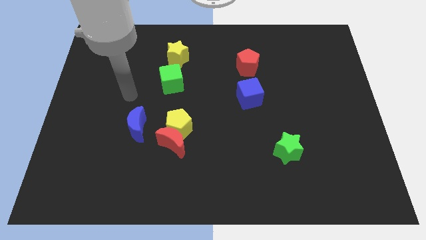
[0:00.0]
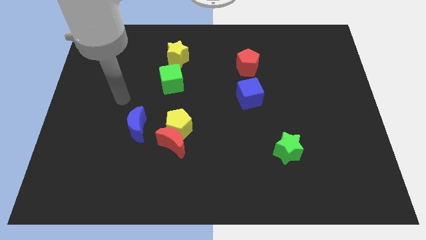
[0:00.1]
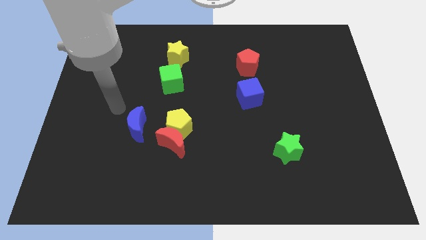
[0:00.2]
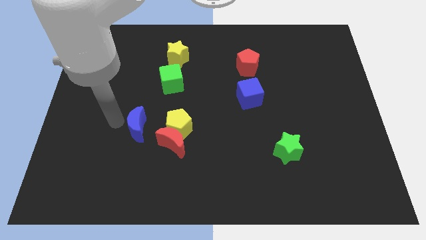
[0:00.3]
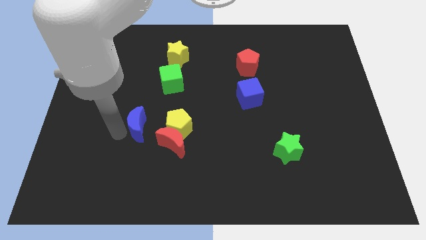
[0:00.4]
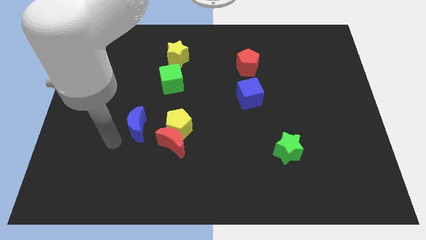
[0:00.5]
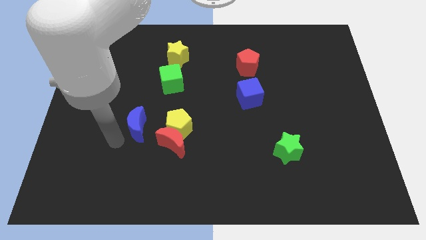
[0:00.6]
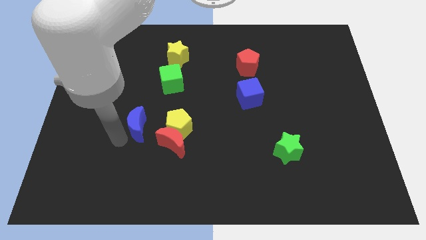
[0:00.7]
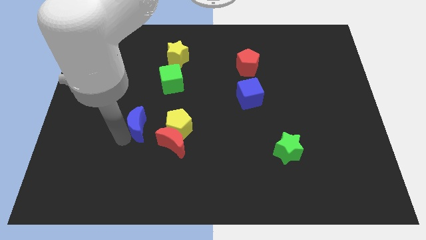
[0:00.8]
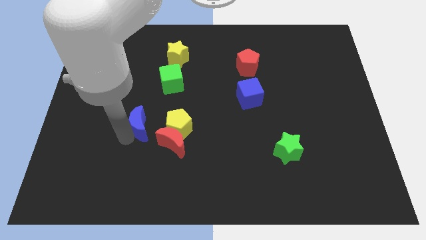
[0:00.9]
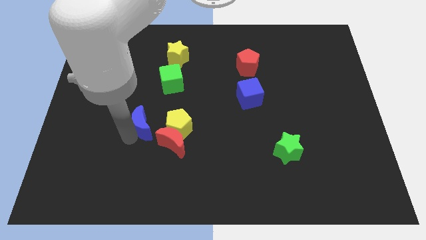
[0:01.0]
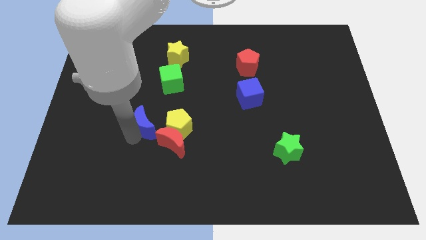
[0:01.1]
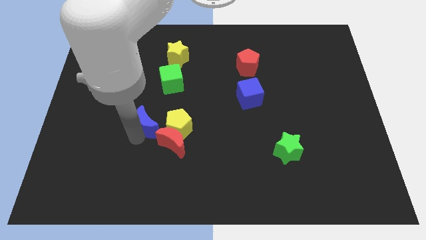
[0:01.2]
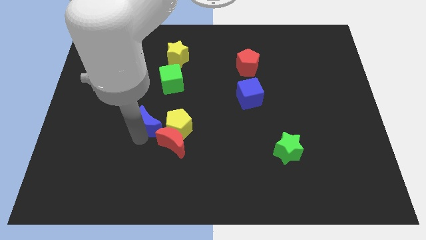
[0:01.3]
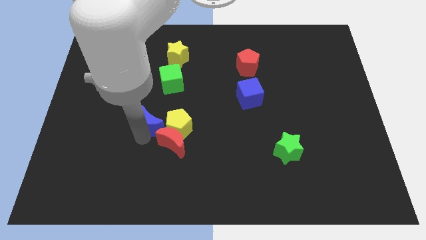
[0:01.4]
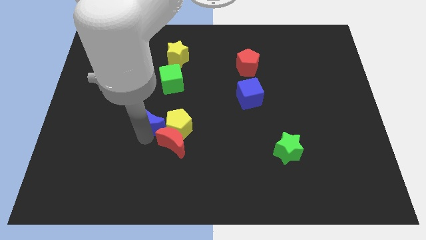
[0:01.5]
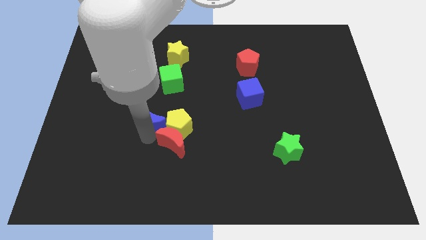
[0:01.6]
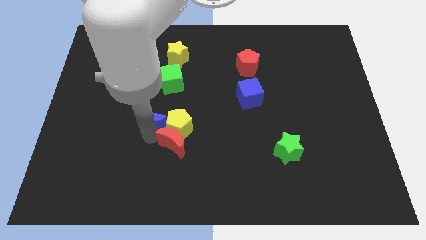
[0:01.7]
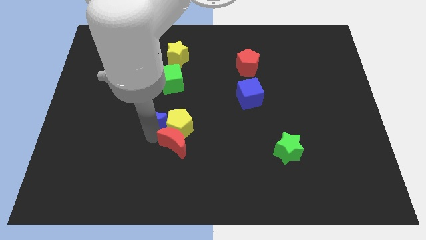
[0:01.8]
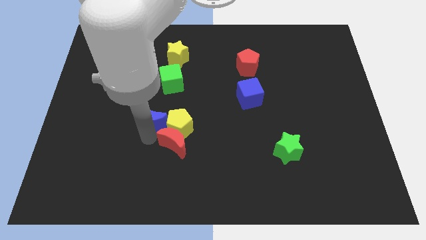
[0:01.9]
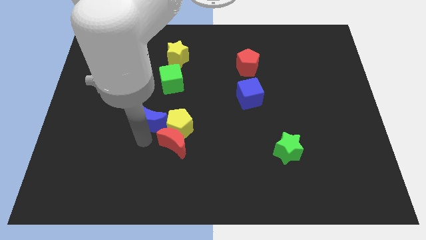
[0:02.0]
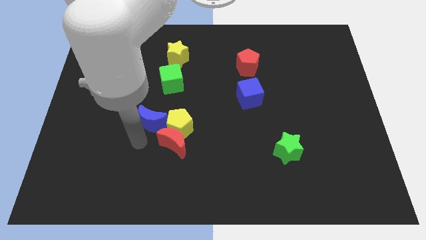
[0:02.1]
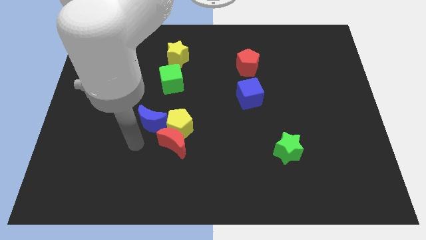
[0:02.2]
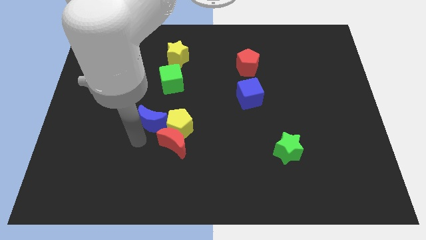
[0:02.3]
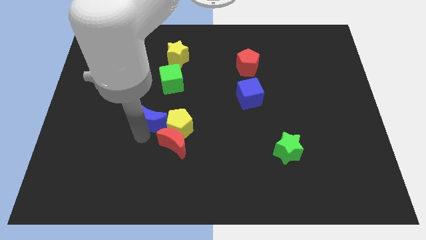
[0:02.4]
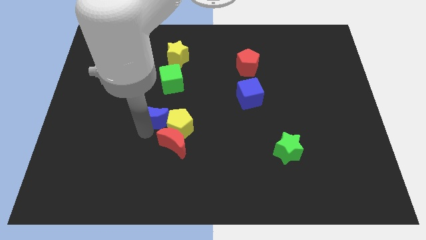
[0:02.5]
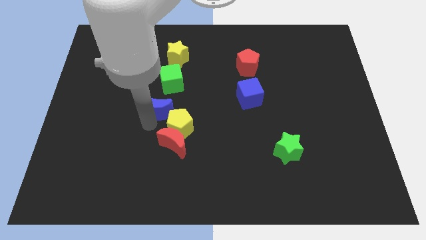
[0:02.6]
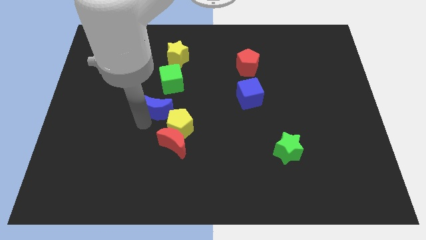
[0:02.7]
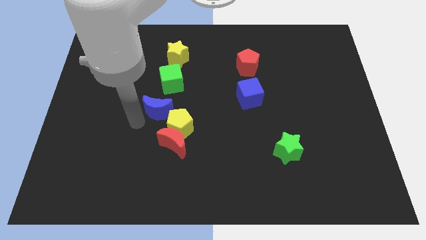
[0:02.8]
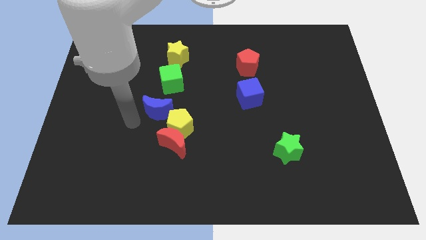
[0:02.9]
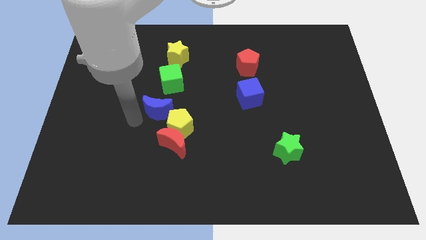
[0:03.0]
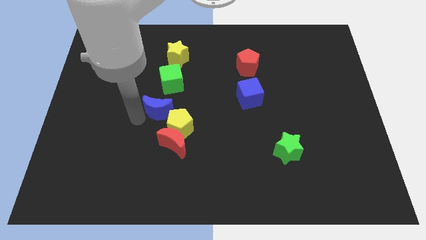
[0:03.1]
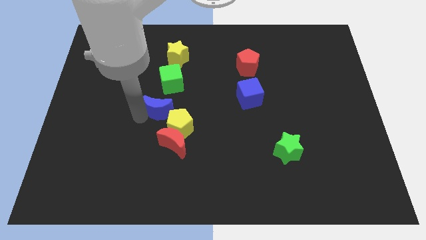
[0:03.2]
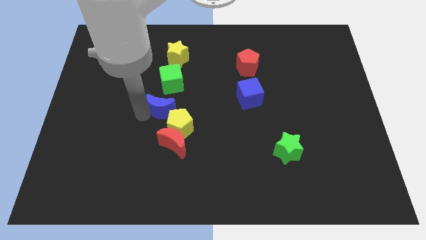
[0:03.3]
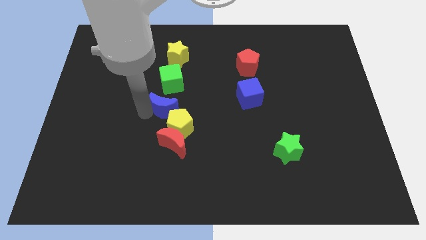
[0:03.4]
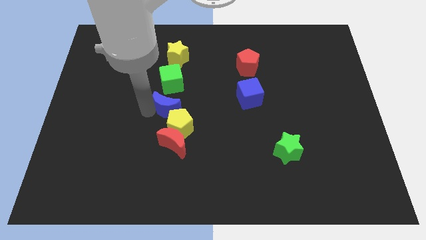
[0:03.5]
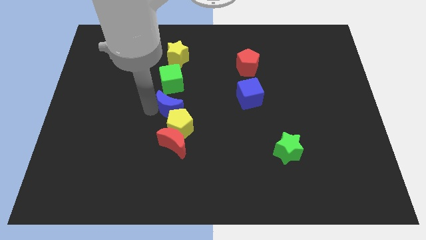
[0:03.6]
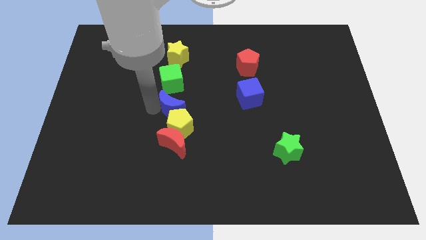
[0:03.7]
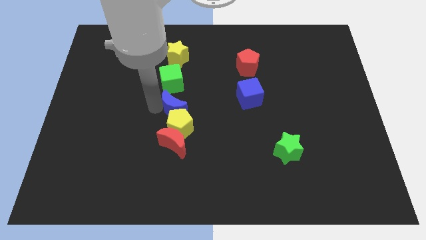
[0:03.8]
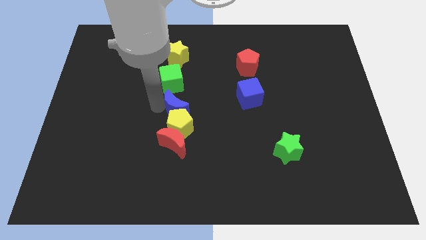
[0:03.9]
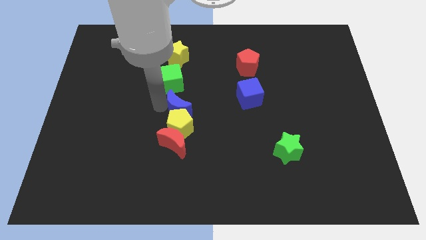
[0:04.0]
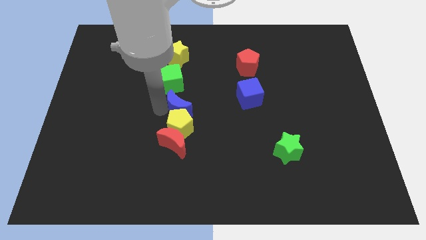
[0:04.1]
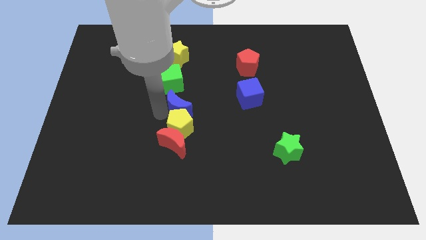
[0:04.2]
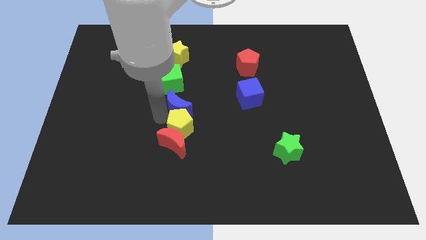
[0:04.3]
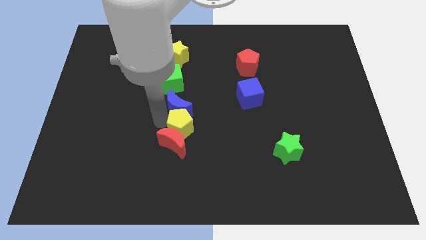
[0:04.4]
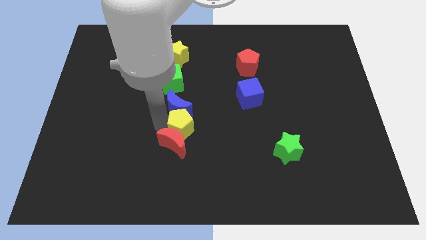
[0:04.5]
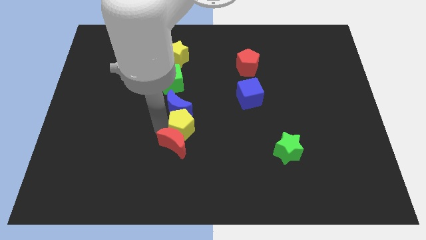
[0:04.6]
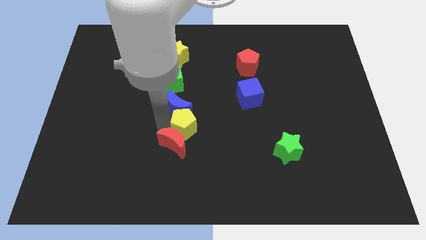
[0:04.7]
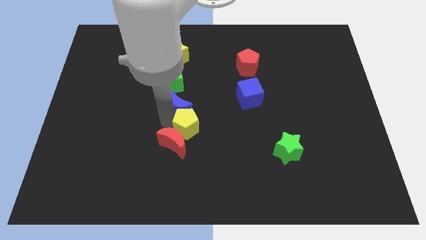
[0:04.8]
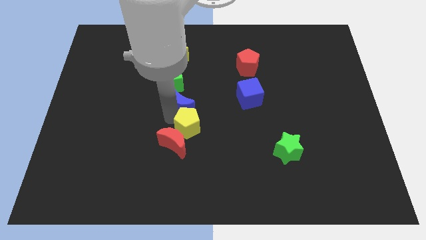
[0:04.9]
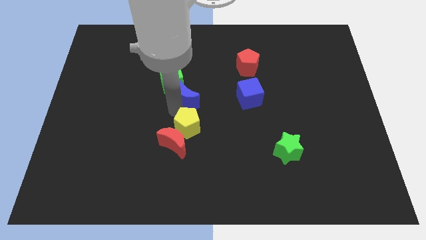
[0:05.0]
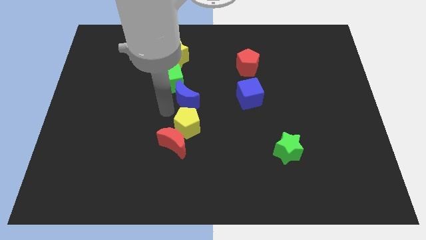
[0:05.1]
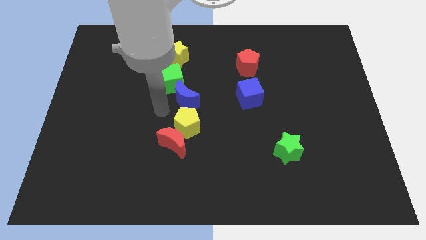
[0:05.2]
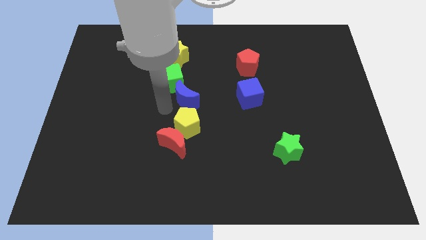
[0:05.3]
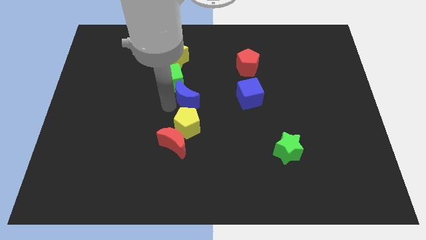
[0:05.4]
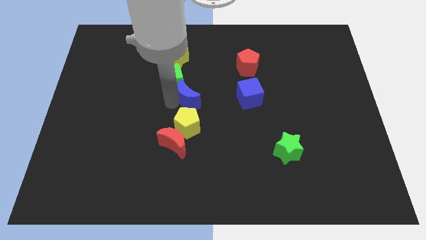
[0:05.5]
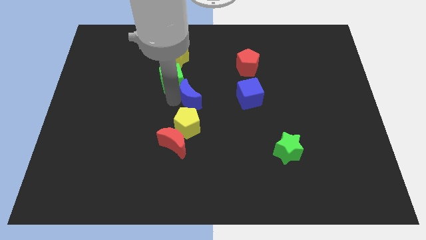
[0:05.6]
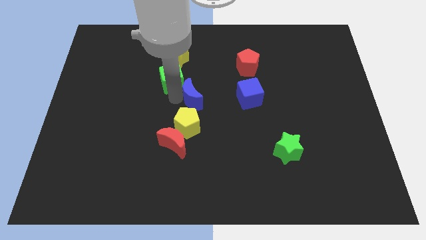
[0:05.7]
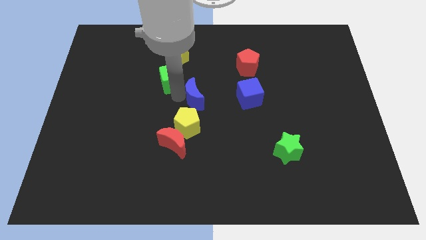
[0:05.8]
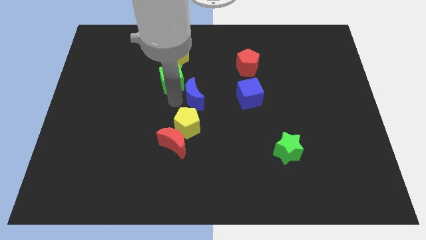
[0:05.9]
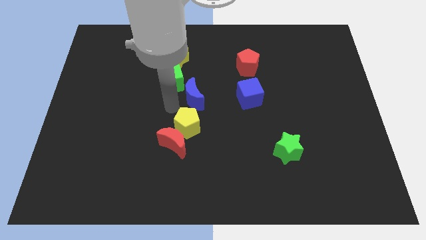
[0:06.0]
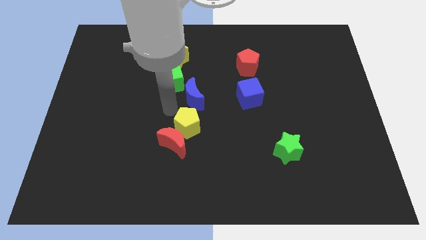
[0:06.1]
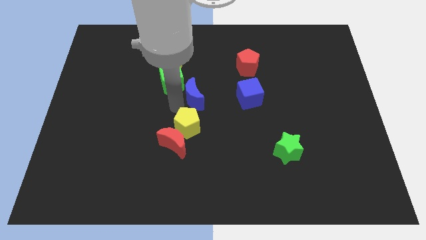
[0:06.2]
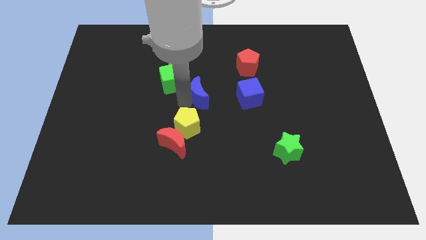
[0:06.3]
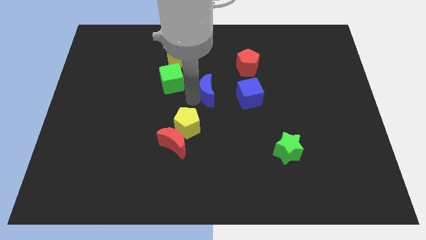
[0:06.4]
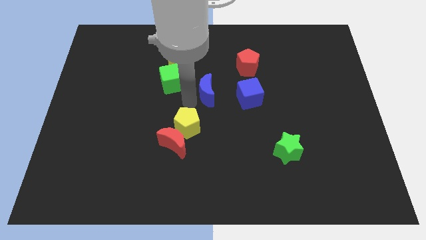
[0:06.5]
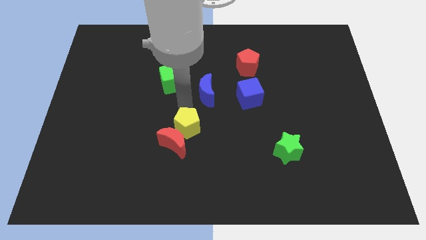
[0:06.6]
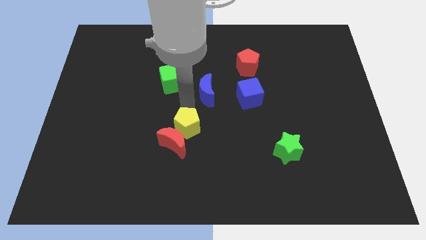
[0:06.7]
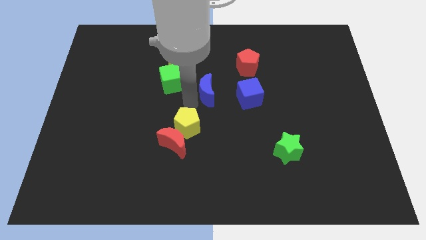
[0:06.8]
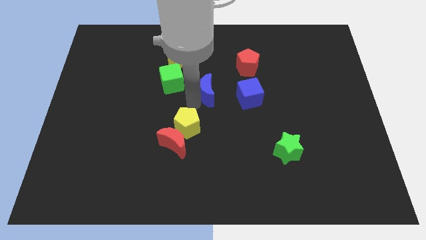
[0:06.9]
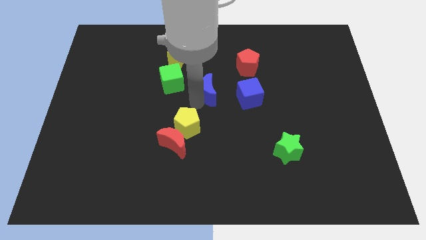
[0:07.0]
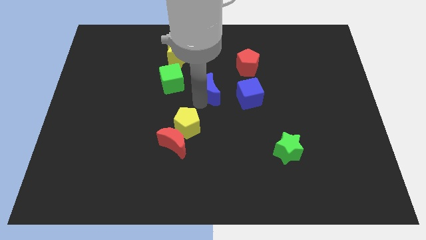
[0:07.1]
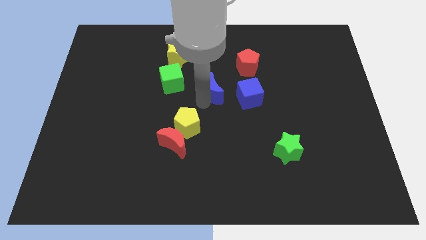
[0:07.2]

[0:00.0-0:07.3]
push the blue moon diagonally down and to the left of the red pentagon

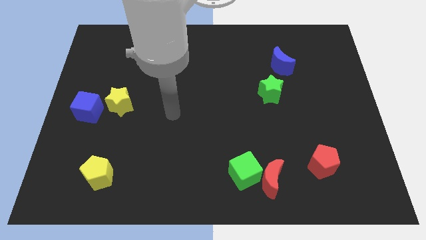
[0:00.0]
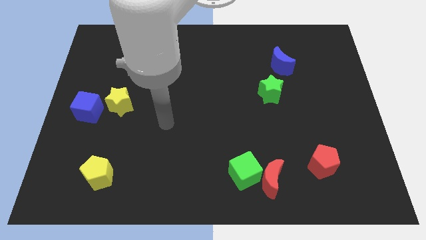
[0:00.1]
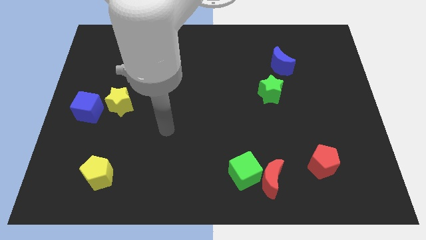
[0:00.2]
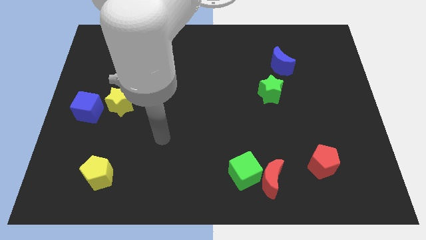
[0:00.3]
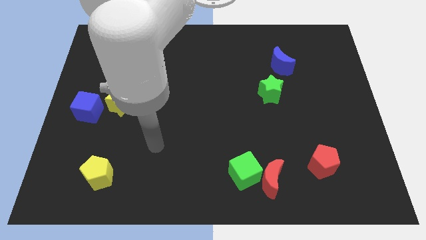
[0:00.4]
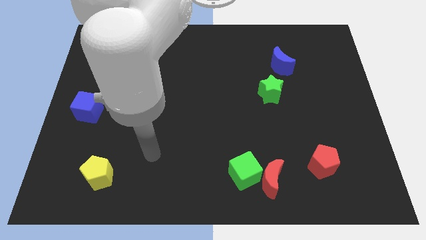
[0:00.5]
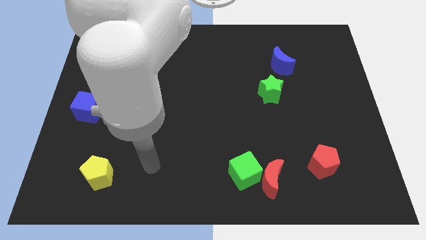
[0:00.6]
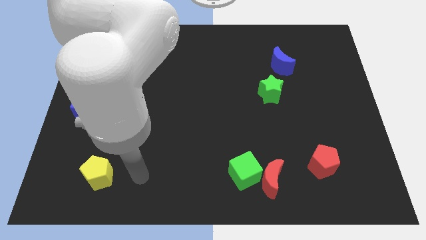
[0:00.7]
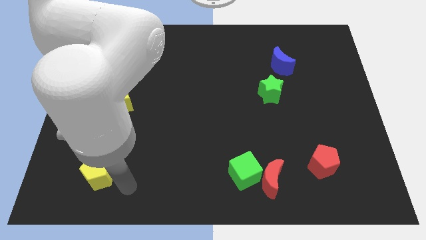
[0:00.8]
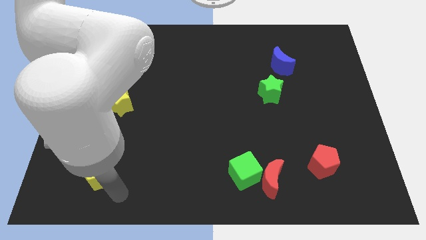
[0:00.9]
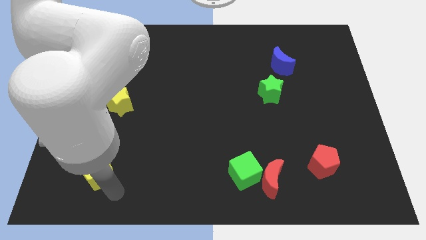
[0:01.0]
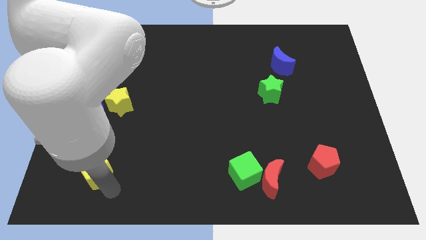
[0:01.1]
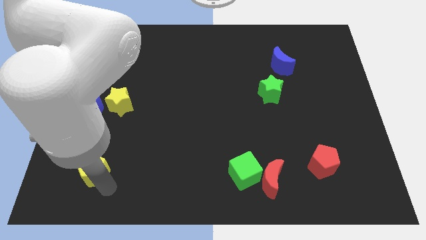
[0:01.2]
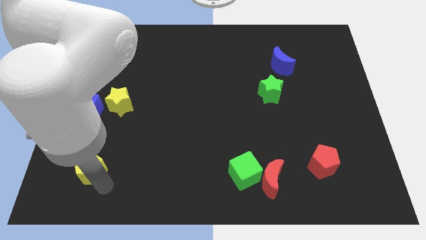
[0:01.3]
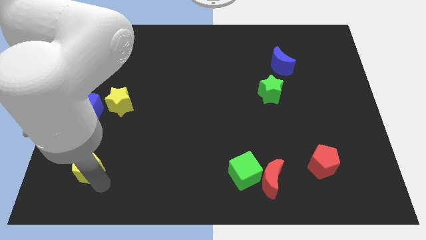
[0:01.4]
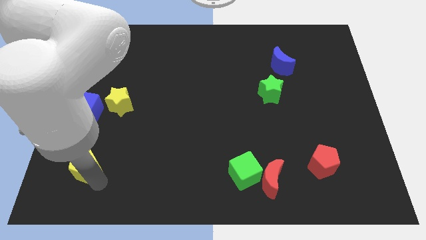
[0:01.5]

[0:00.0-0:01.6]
push the yellow pentagon below the blue cube

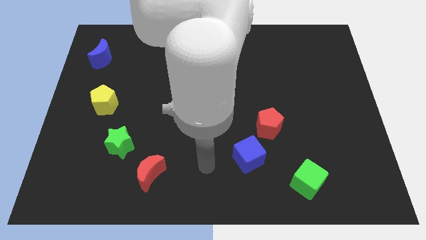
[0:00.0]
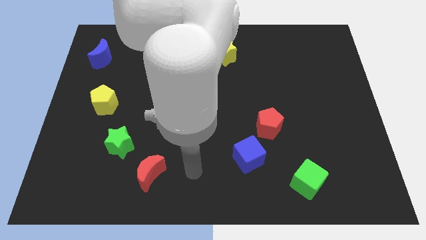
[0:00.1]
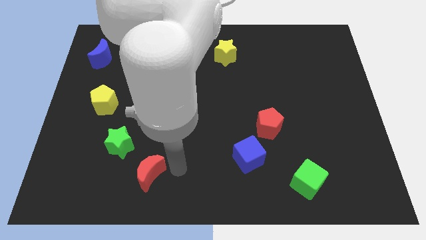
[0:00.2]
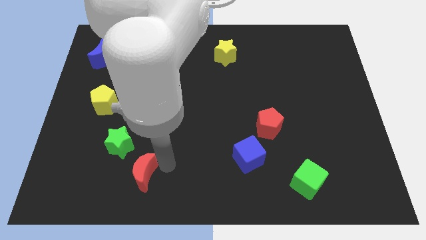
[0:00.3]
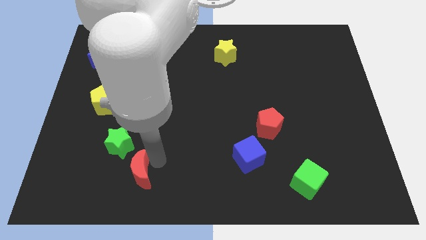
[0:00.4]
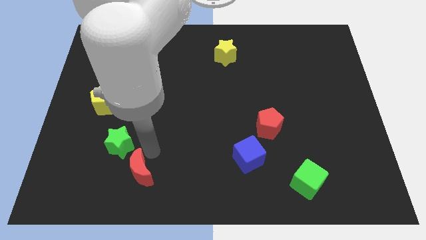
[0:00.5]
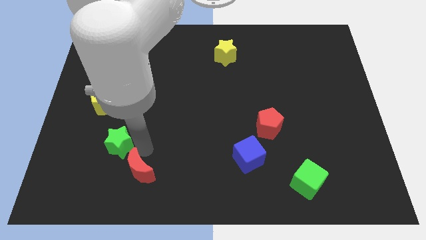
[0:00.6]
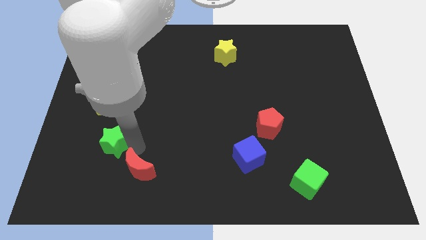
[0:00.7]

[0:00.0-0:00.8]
put the green star below the yellow pentagon
